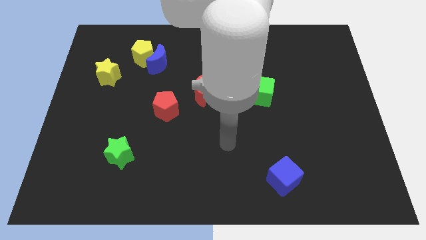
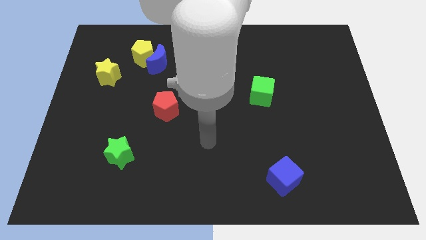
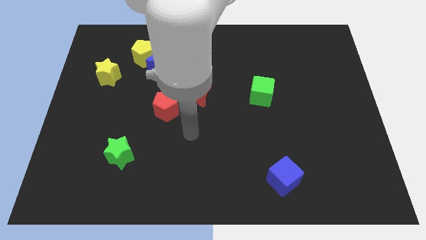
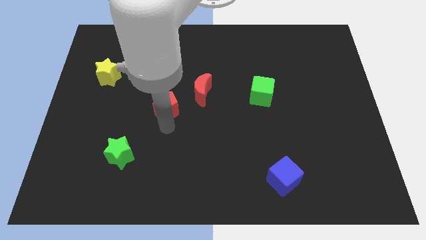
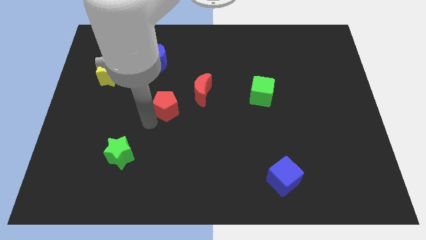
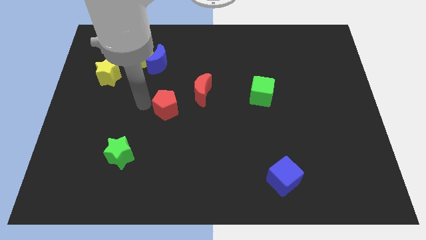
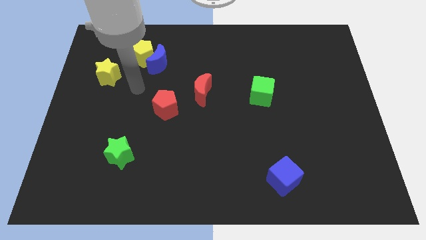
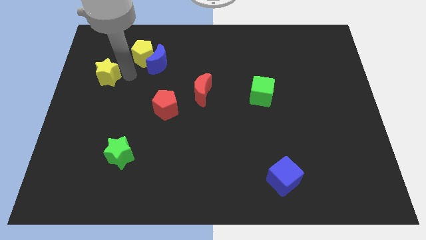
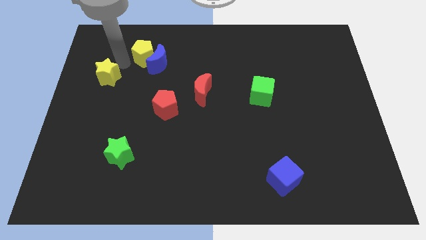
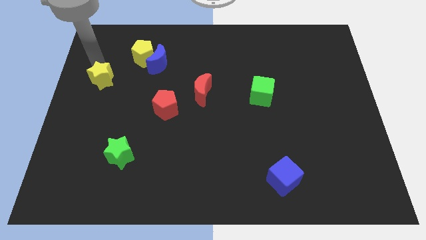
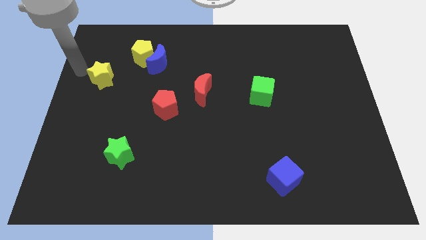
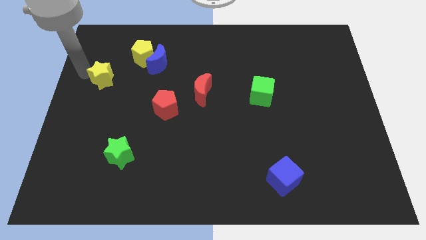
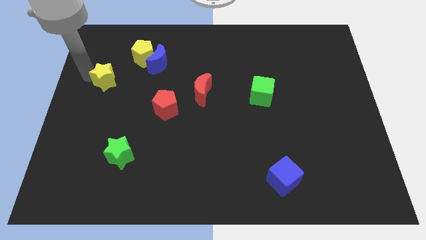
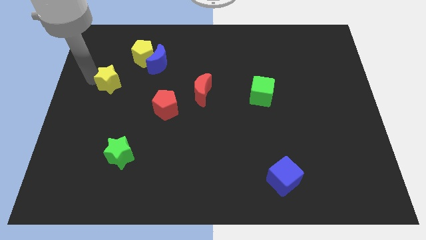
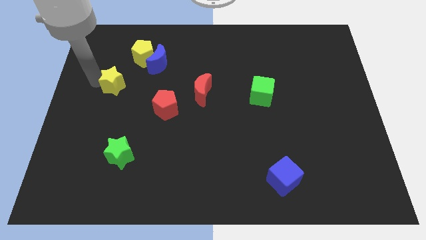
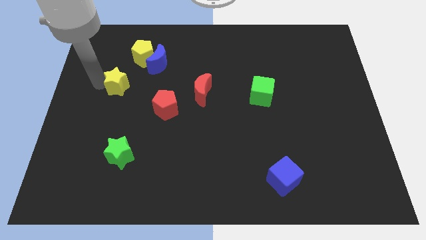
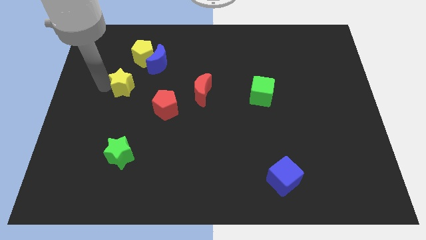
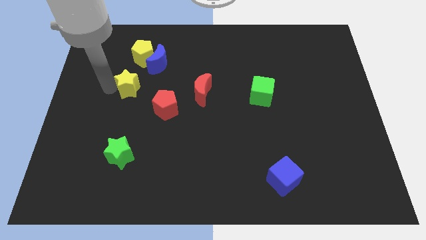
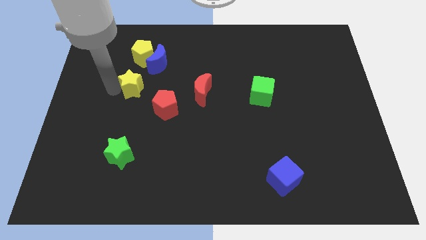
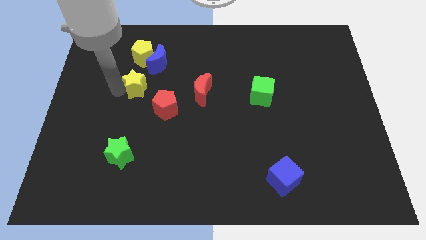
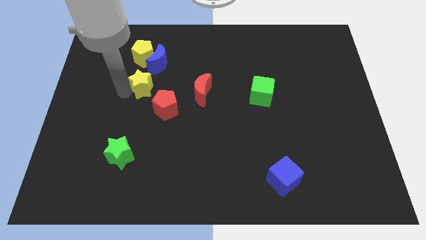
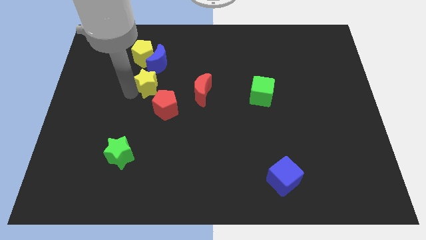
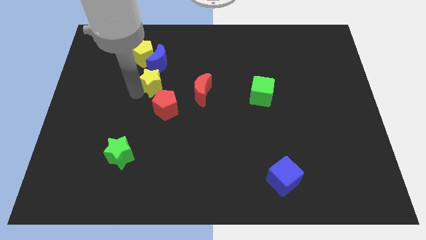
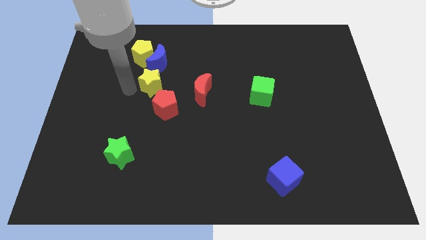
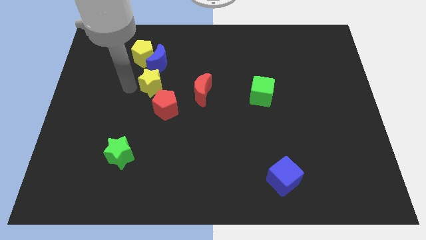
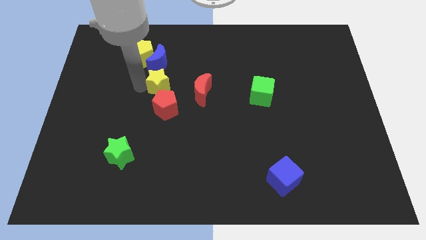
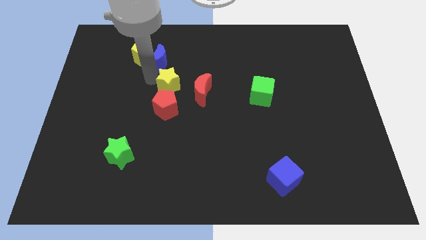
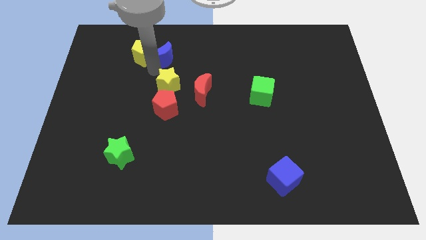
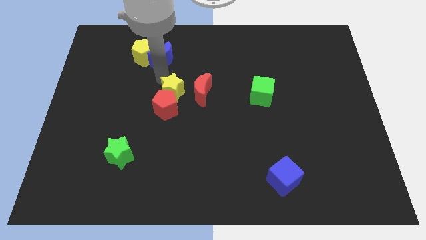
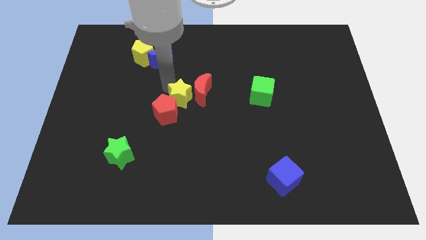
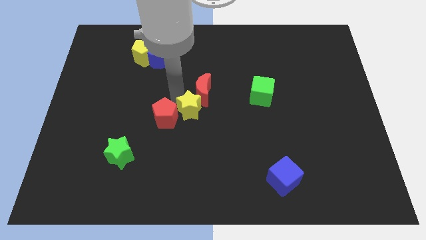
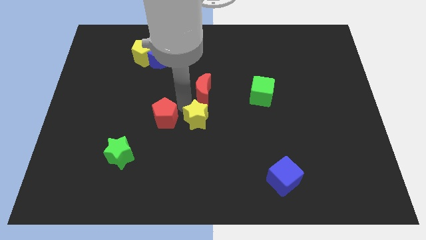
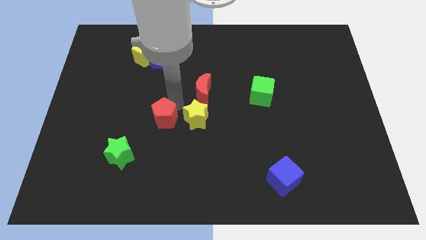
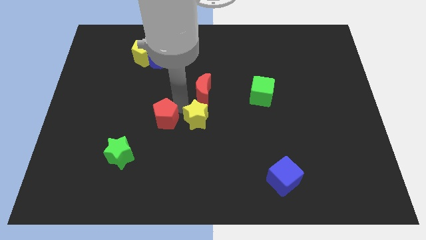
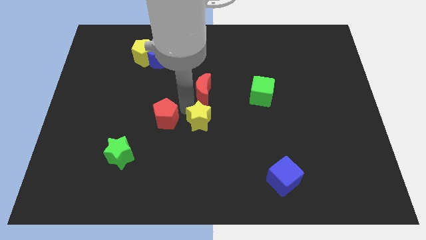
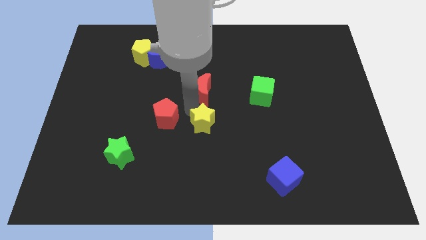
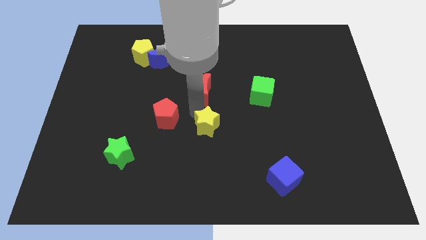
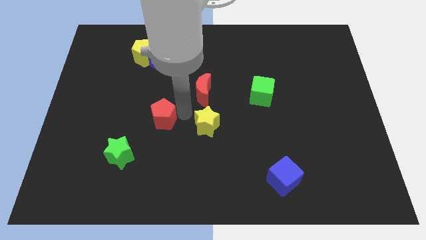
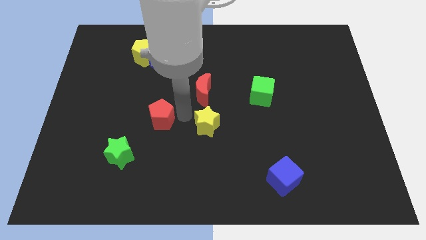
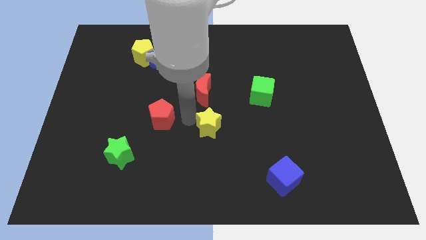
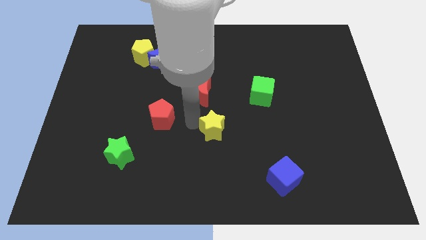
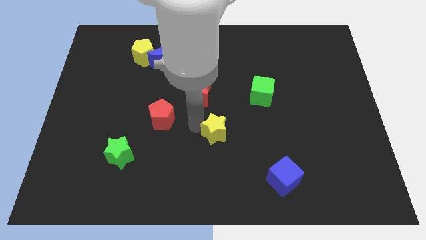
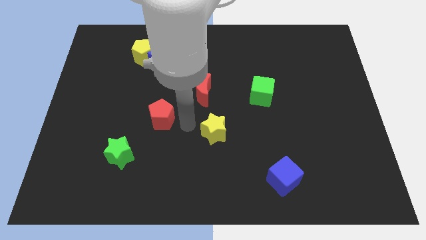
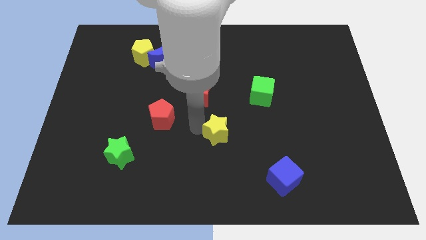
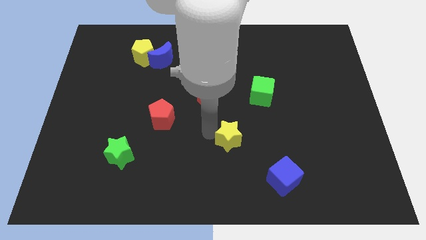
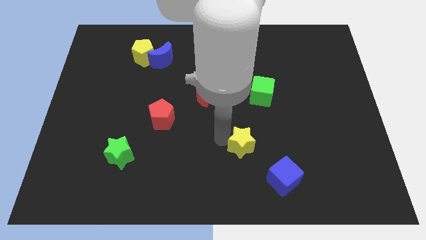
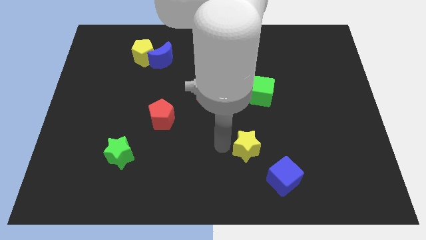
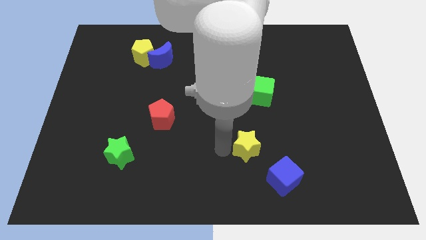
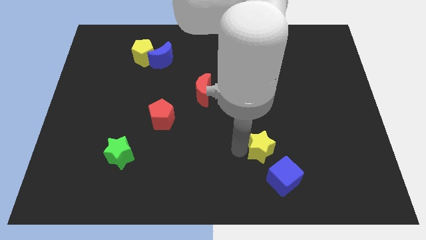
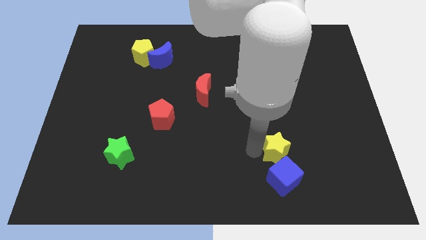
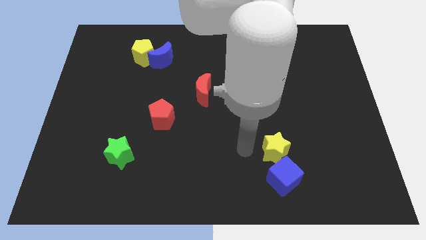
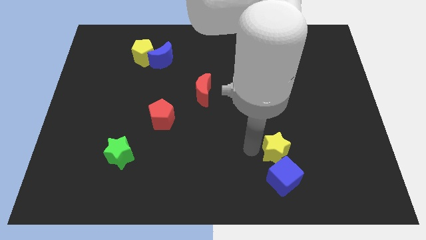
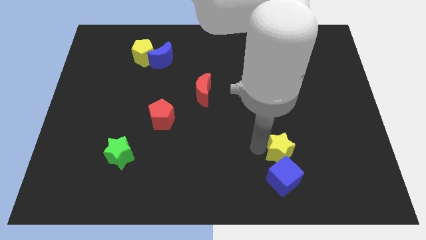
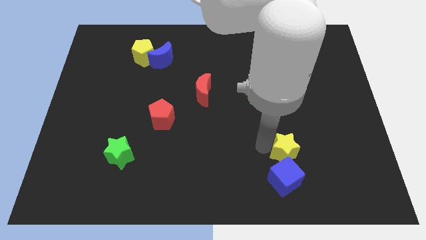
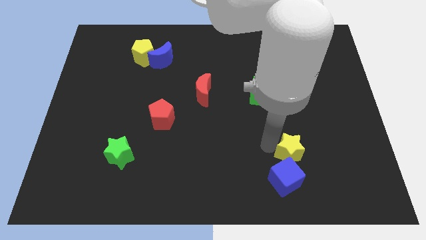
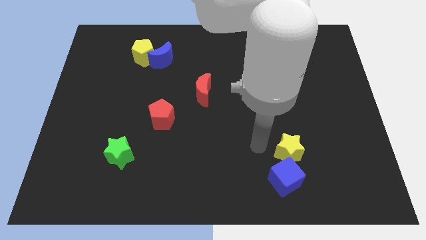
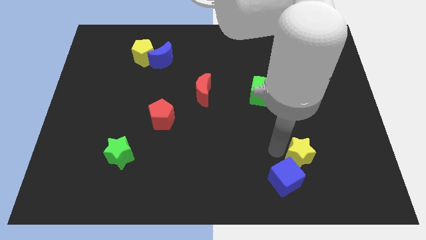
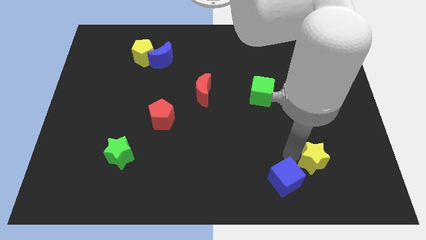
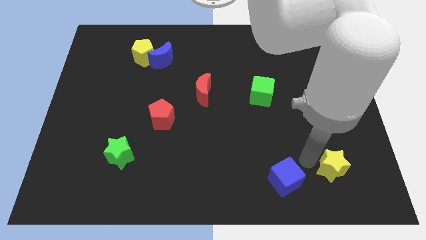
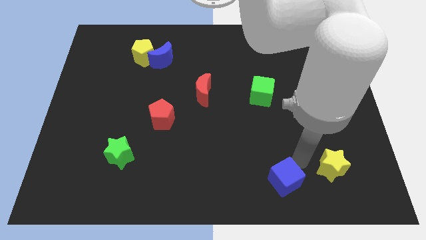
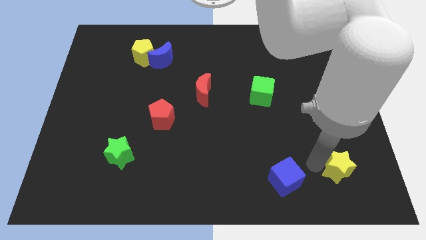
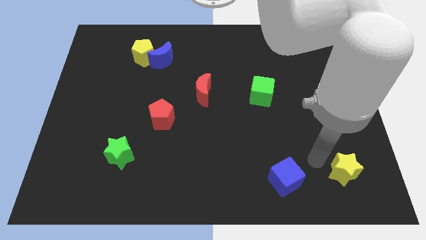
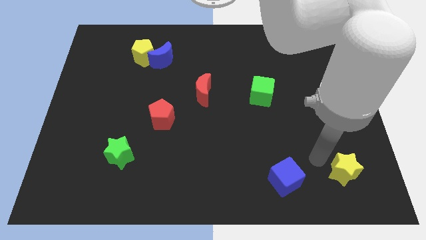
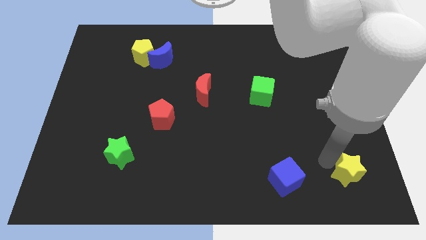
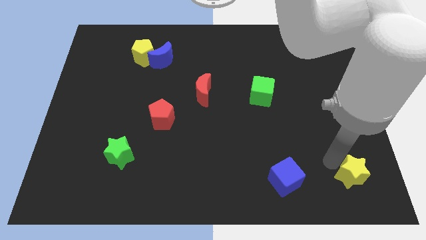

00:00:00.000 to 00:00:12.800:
put the yellow star to the lower right corner
